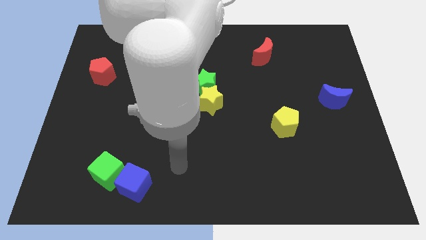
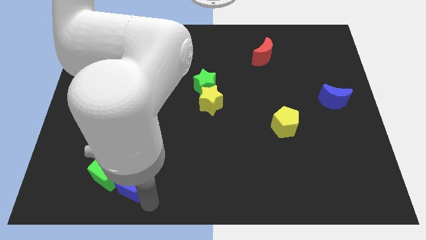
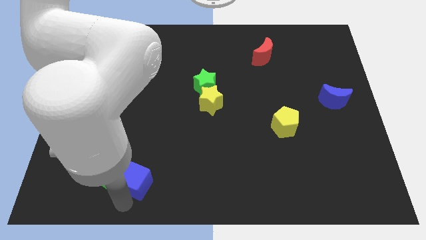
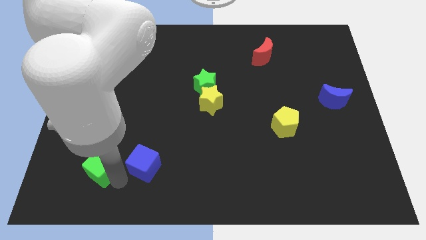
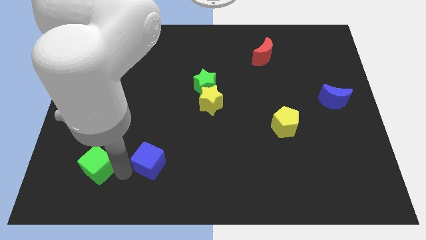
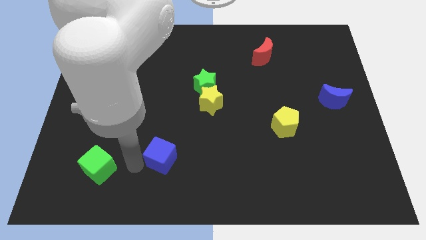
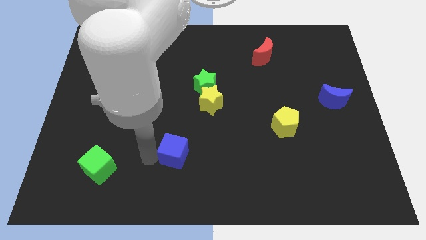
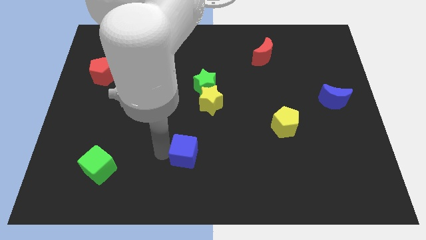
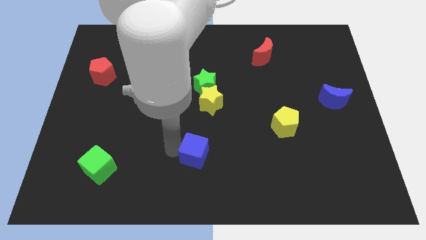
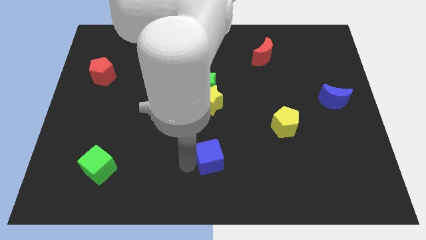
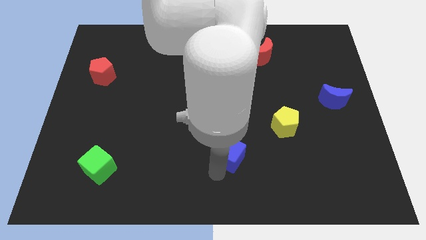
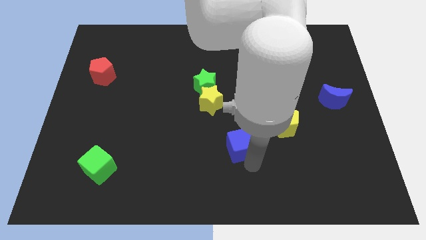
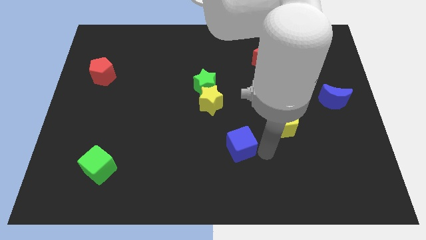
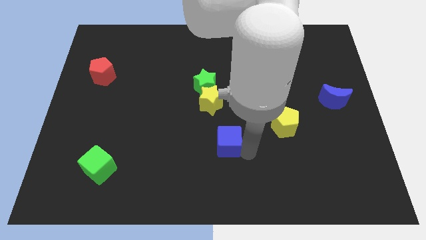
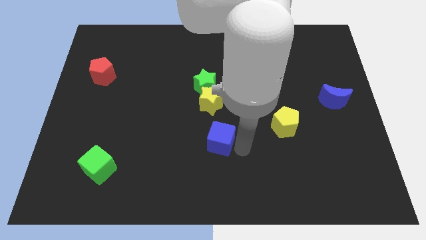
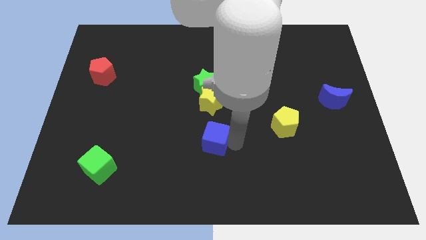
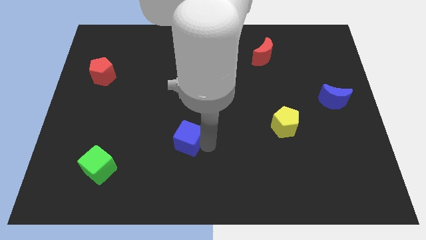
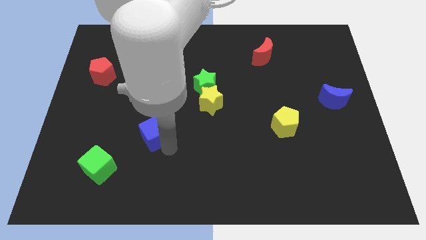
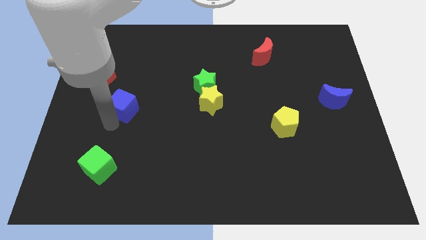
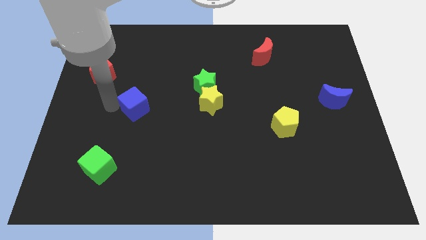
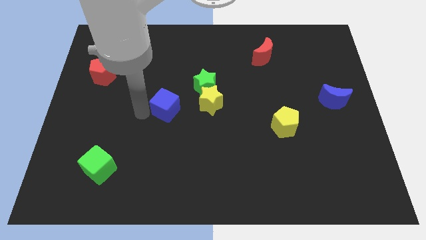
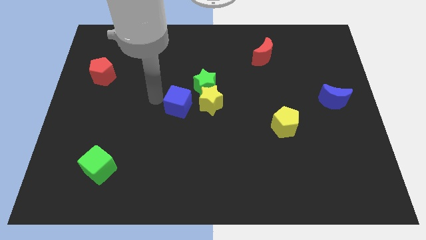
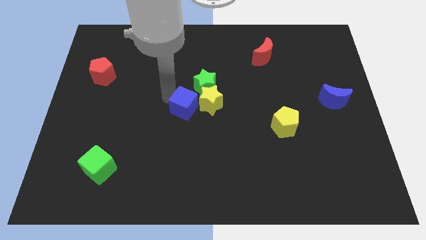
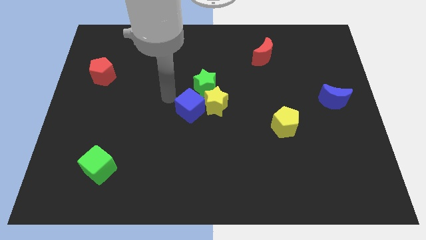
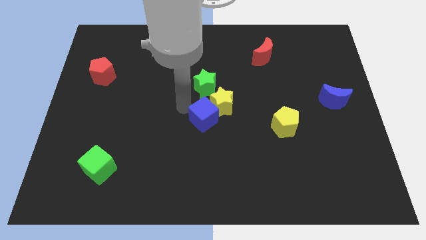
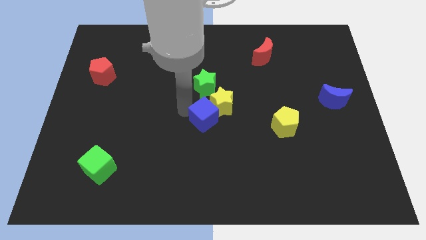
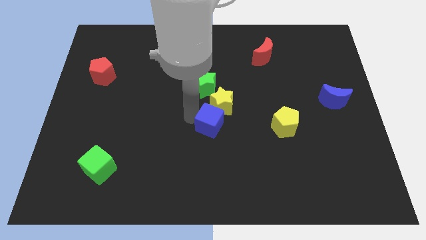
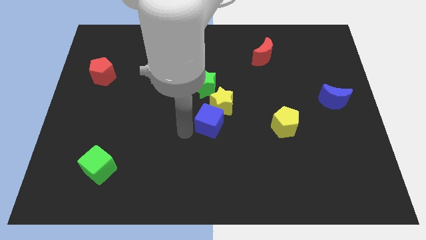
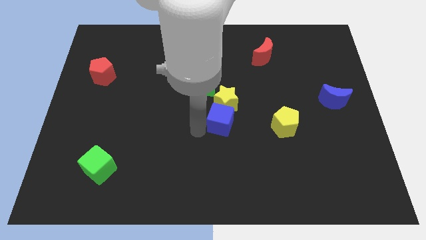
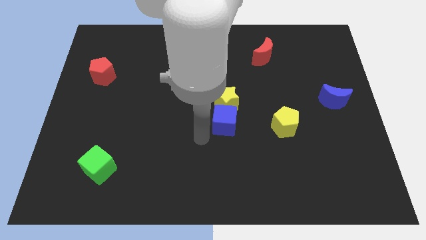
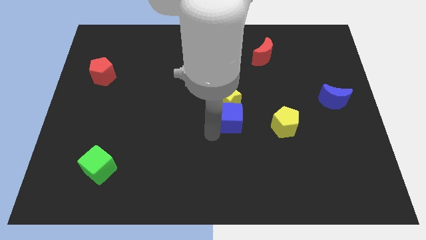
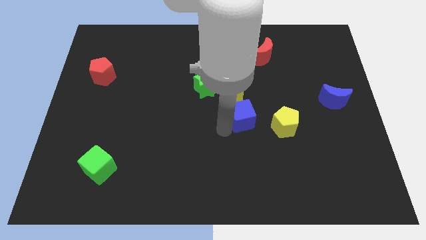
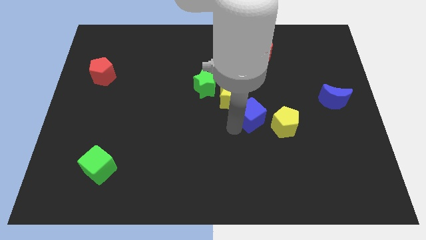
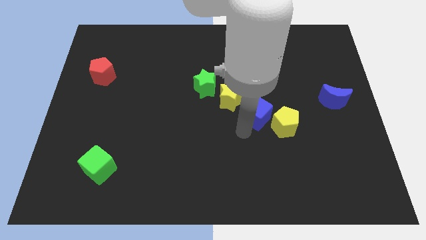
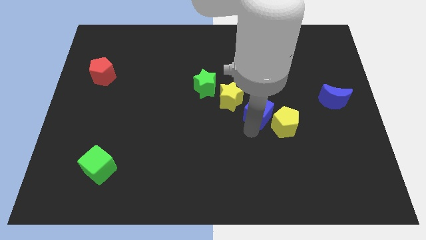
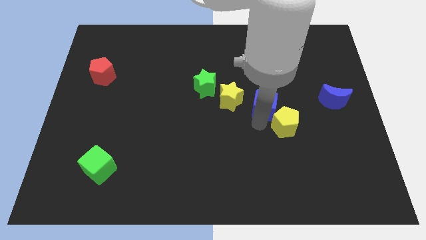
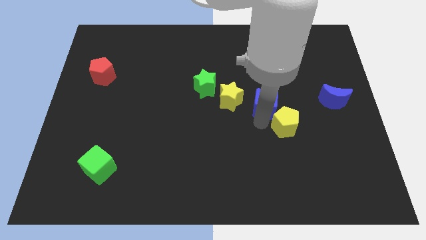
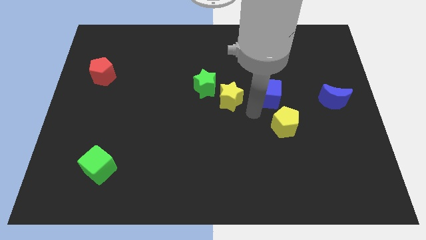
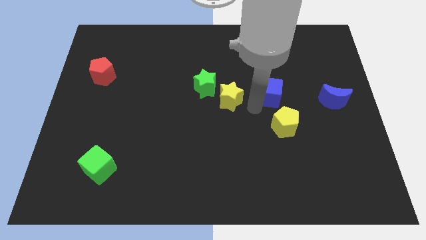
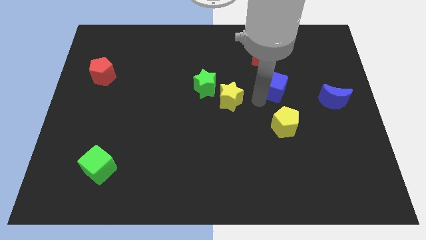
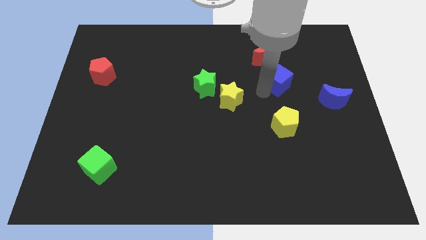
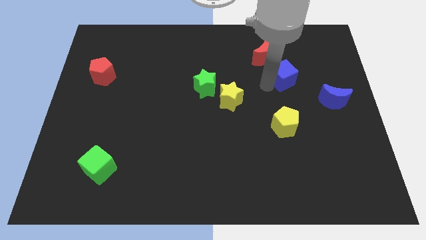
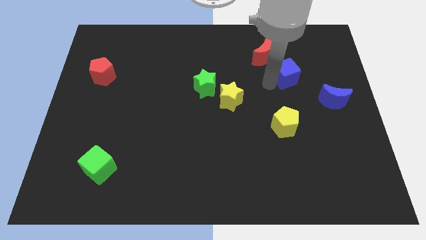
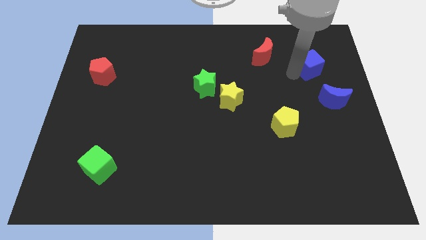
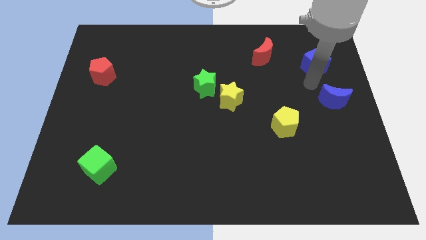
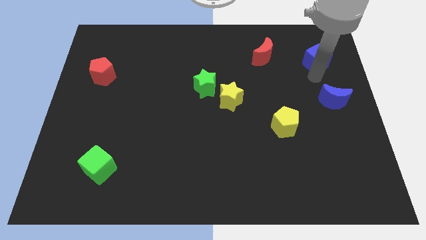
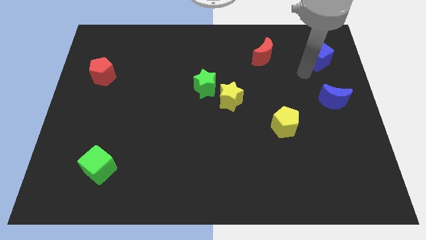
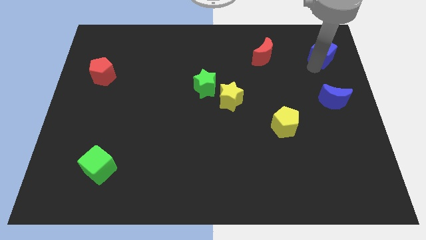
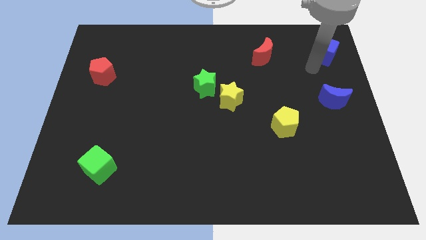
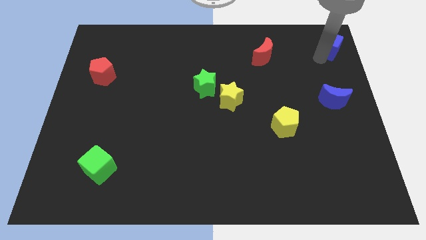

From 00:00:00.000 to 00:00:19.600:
put the blue cube to the top right corner
